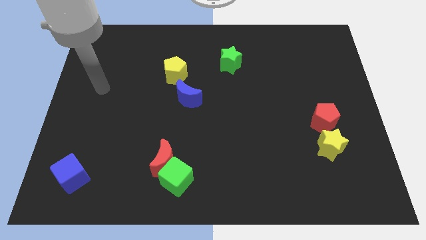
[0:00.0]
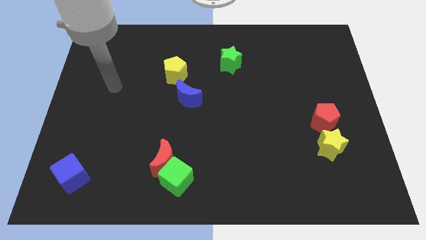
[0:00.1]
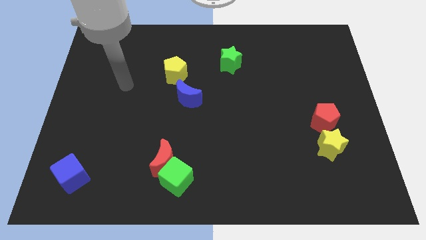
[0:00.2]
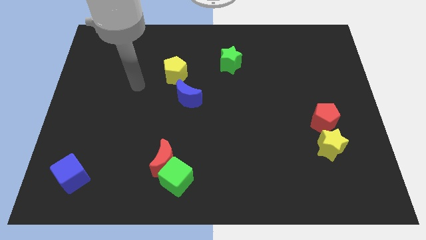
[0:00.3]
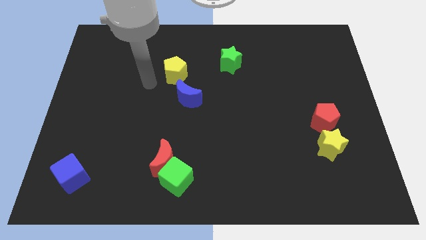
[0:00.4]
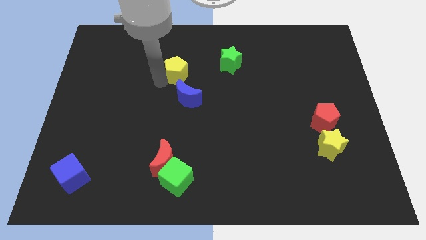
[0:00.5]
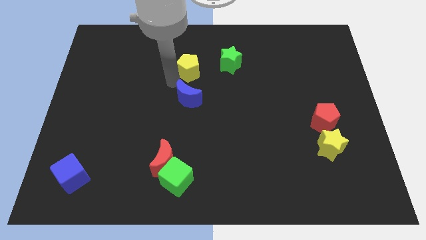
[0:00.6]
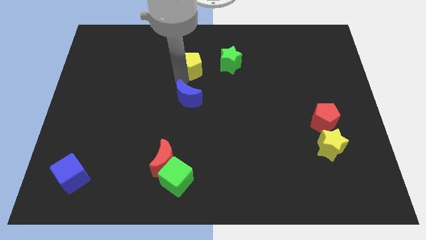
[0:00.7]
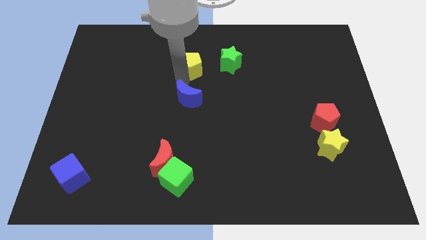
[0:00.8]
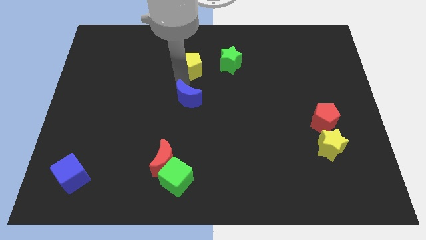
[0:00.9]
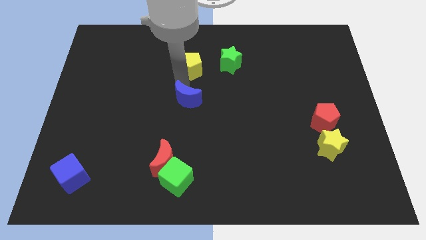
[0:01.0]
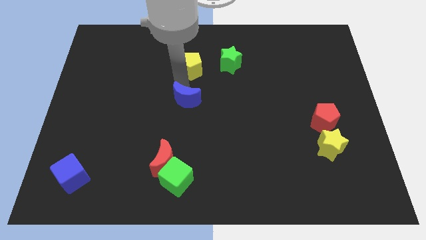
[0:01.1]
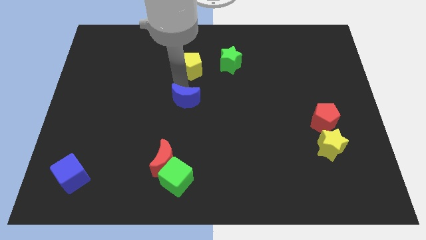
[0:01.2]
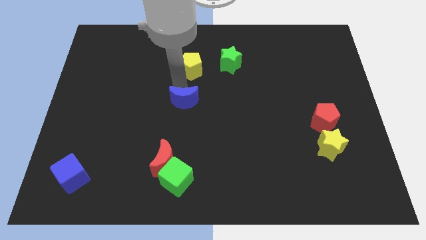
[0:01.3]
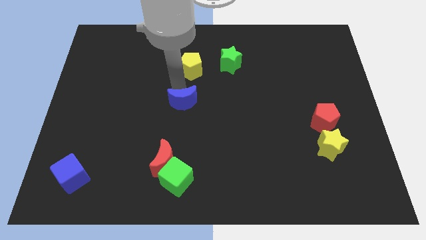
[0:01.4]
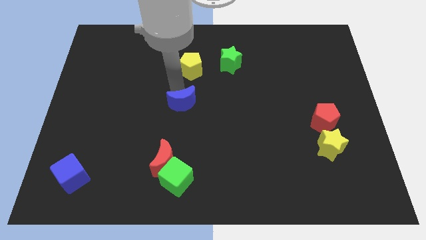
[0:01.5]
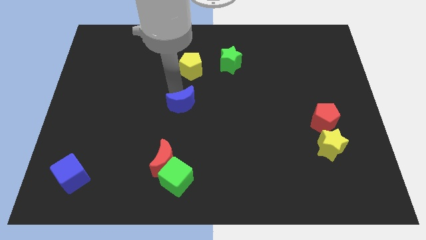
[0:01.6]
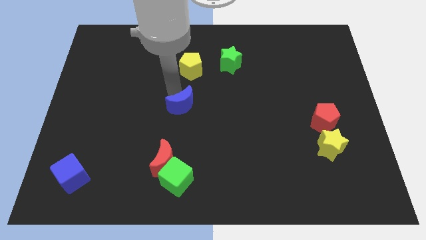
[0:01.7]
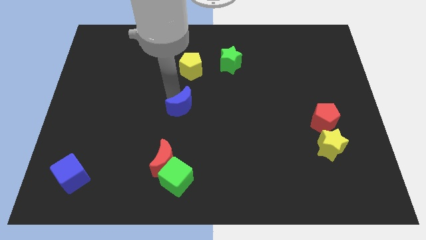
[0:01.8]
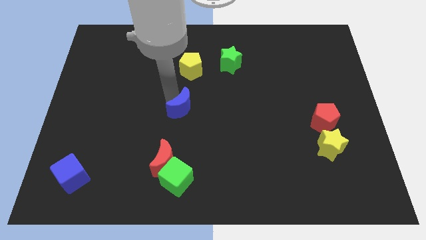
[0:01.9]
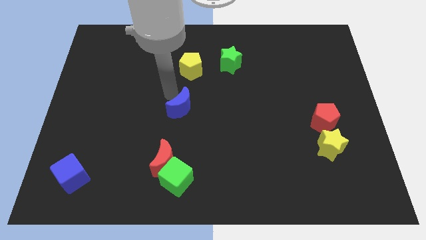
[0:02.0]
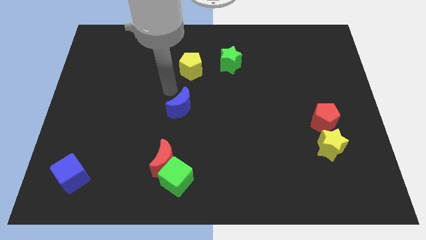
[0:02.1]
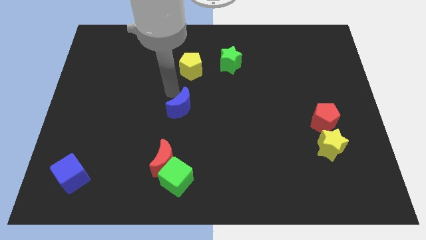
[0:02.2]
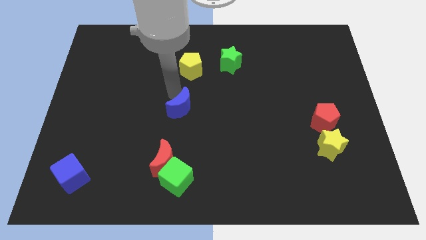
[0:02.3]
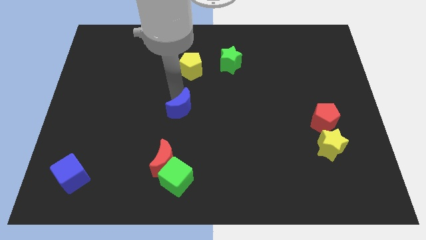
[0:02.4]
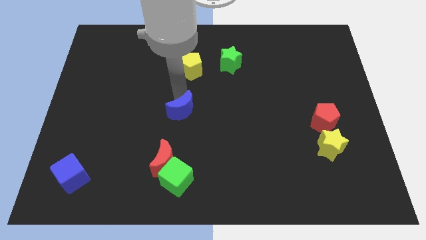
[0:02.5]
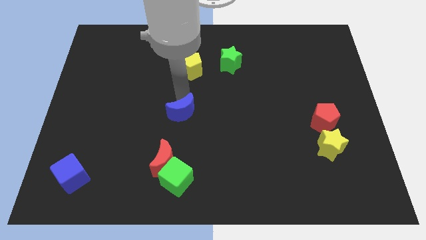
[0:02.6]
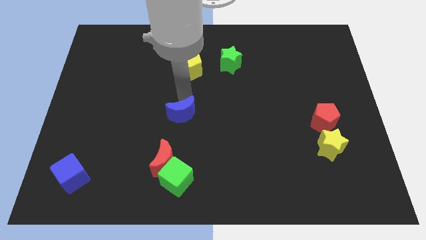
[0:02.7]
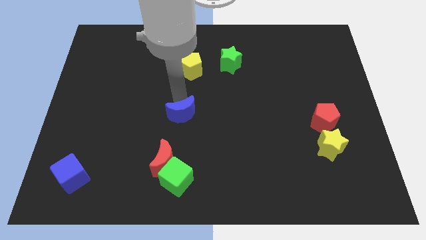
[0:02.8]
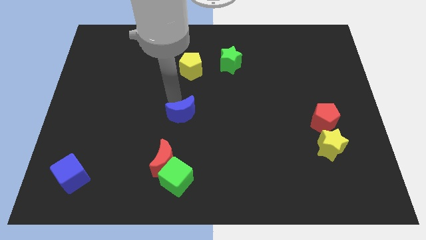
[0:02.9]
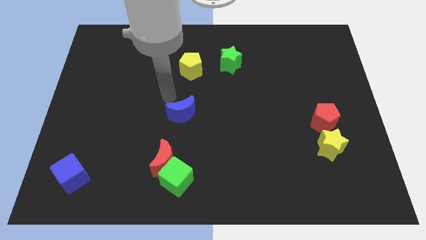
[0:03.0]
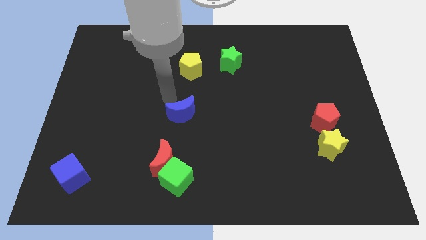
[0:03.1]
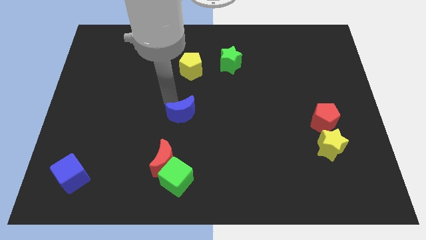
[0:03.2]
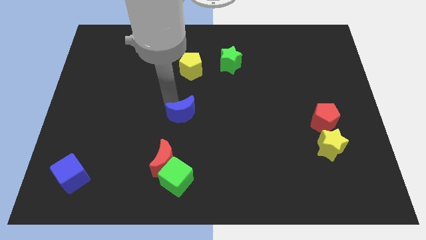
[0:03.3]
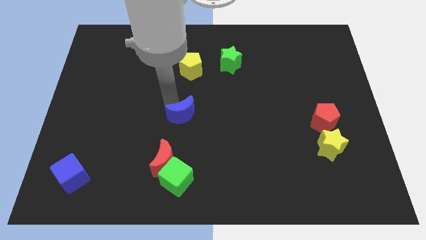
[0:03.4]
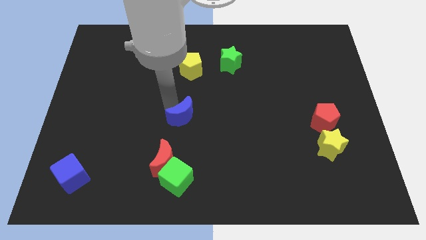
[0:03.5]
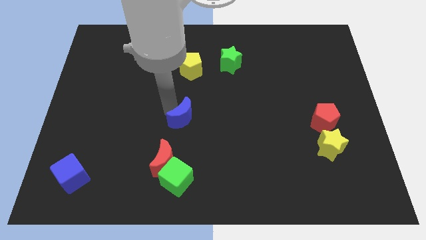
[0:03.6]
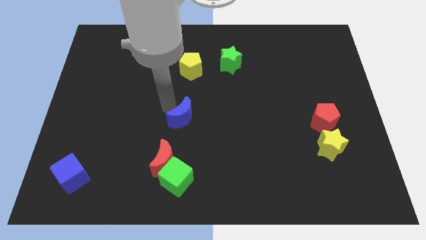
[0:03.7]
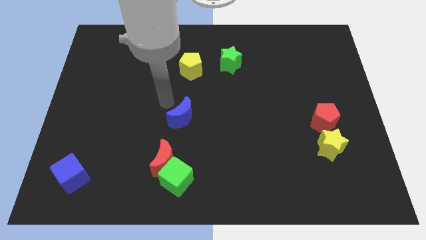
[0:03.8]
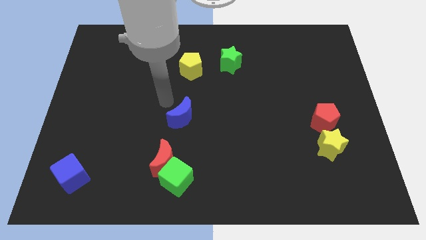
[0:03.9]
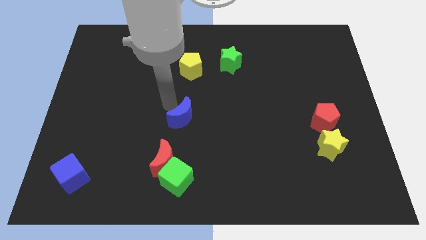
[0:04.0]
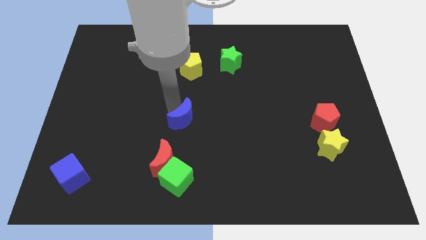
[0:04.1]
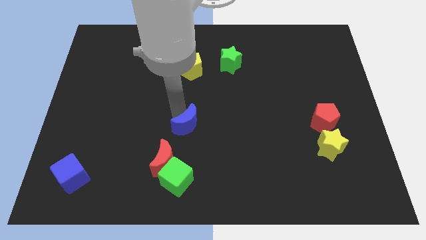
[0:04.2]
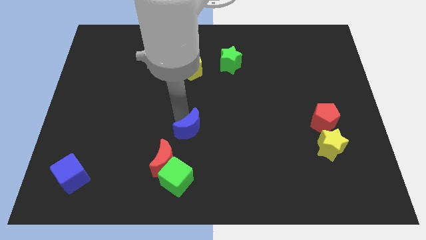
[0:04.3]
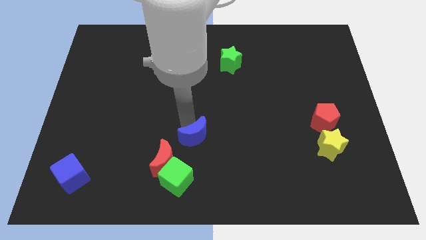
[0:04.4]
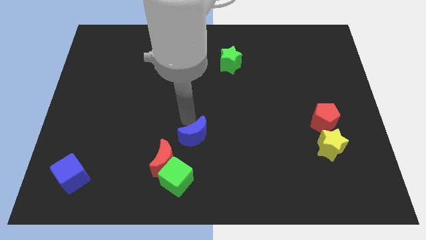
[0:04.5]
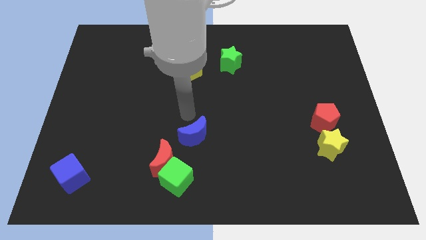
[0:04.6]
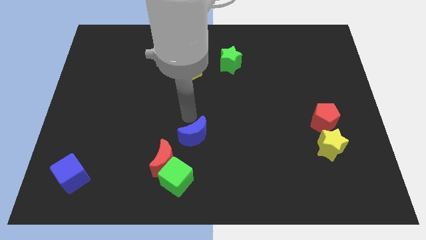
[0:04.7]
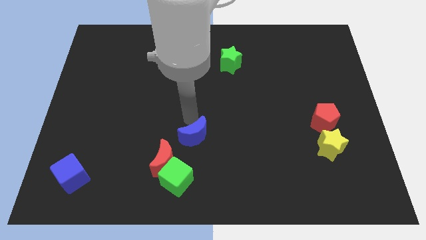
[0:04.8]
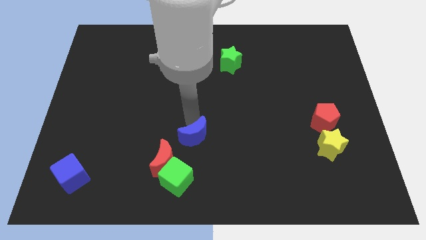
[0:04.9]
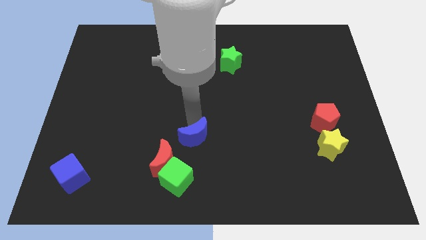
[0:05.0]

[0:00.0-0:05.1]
push the blue moon diagonally up and to the right of the green cube

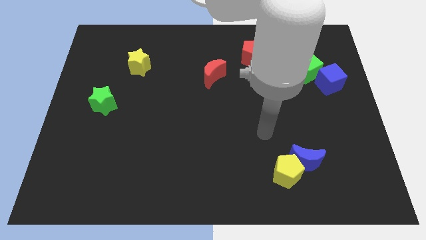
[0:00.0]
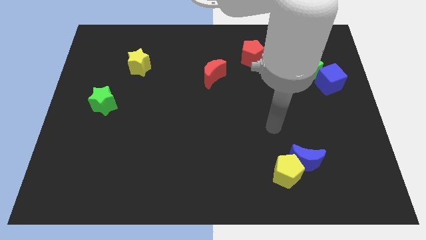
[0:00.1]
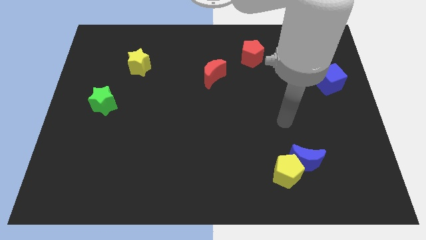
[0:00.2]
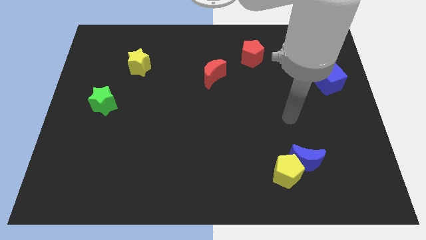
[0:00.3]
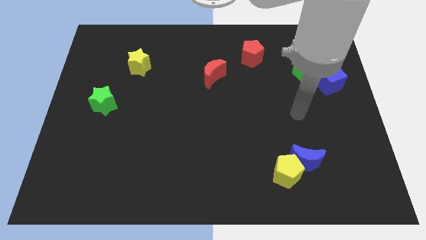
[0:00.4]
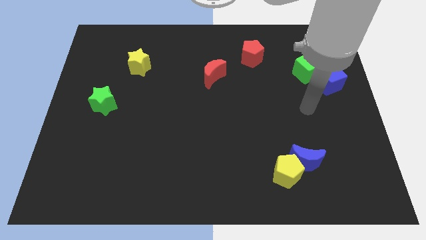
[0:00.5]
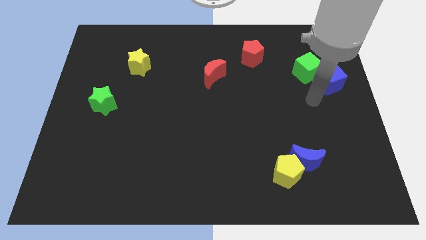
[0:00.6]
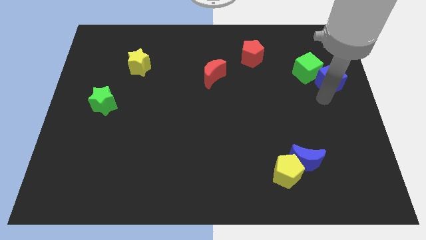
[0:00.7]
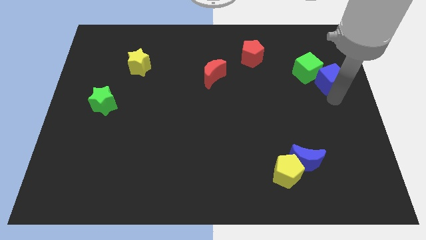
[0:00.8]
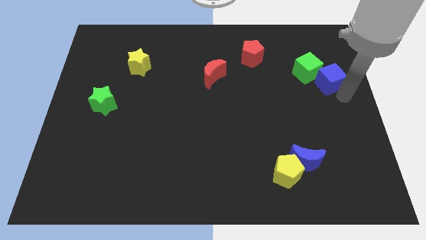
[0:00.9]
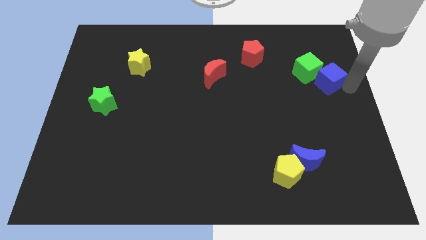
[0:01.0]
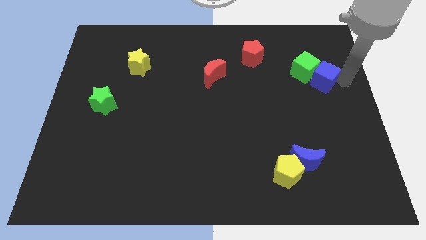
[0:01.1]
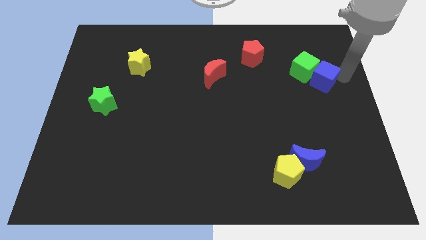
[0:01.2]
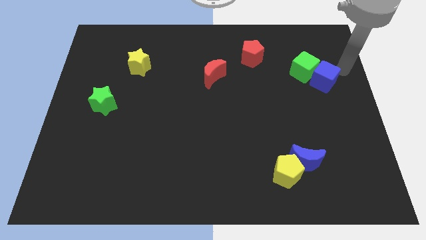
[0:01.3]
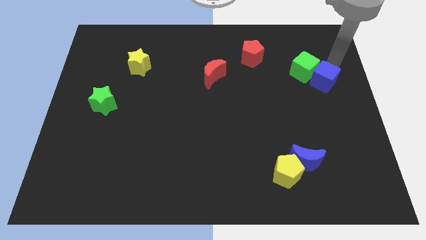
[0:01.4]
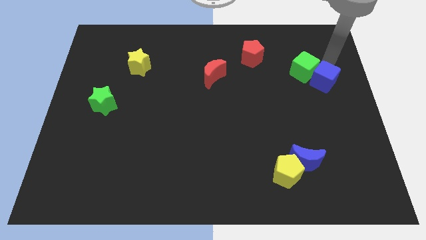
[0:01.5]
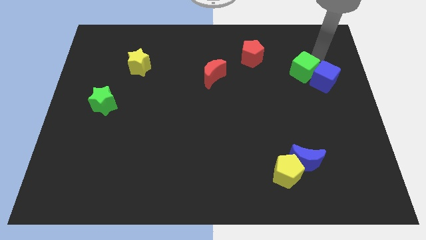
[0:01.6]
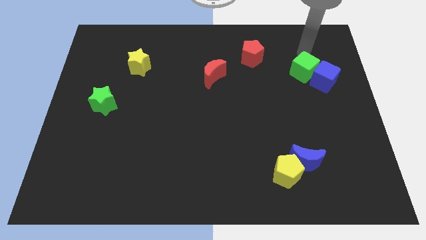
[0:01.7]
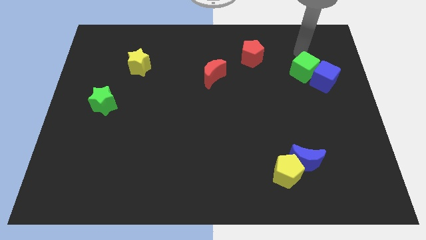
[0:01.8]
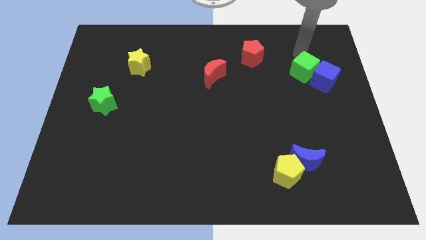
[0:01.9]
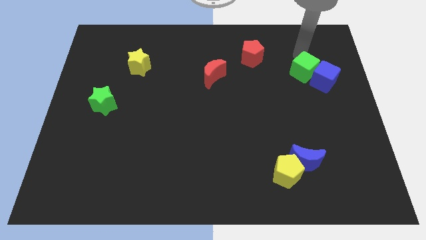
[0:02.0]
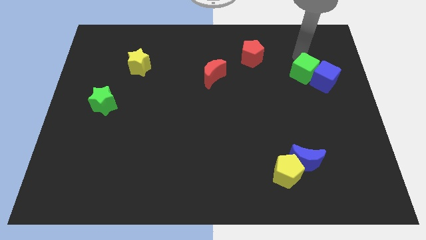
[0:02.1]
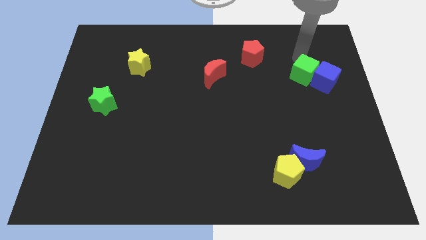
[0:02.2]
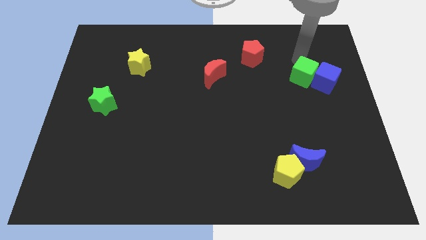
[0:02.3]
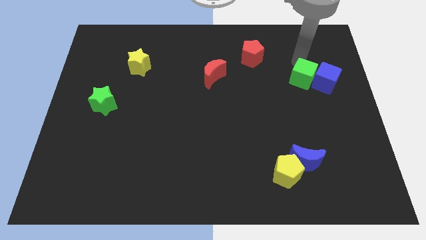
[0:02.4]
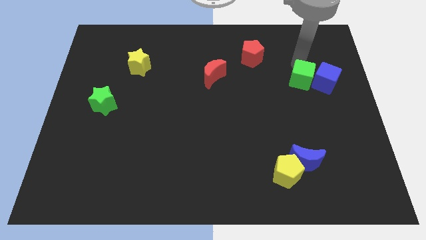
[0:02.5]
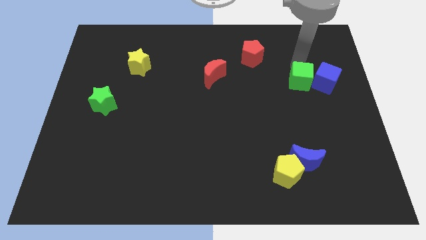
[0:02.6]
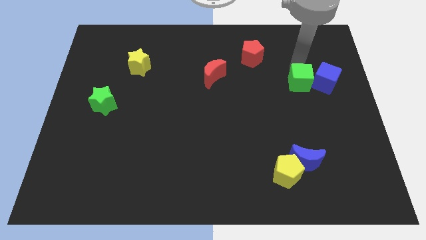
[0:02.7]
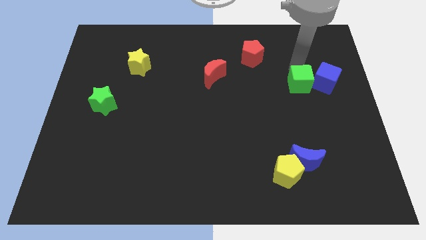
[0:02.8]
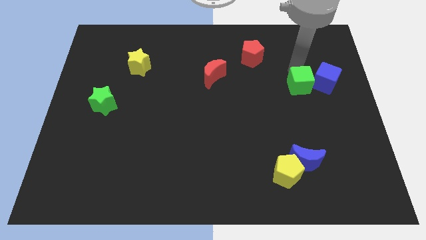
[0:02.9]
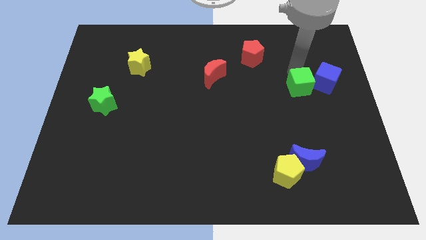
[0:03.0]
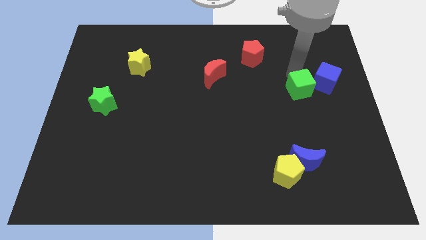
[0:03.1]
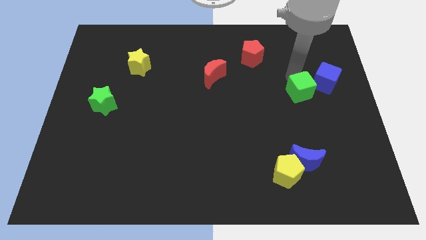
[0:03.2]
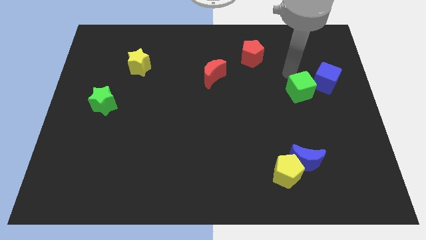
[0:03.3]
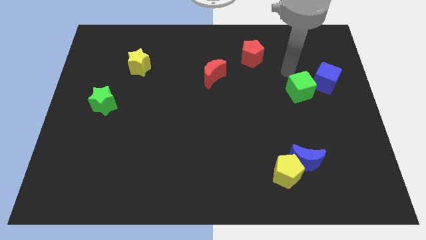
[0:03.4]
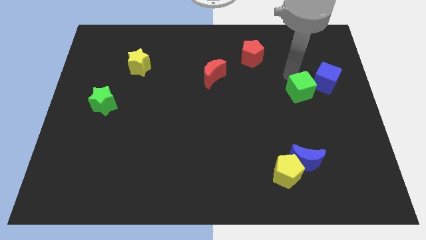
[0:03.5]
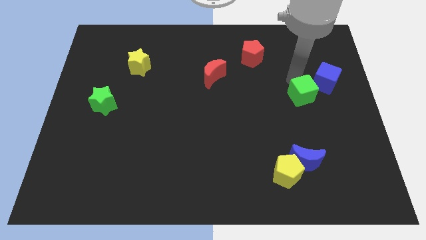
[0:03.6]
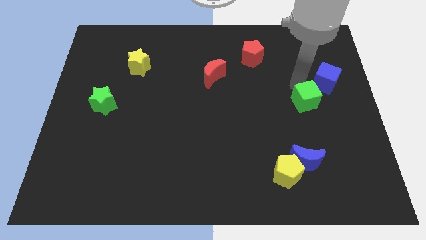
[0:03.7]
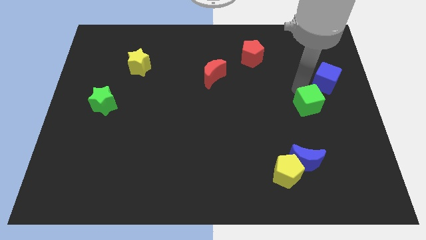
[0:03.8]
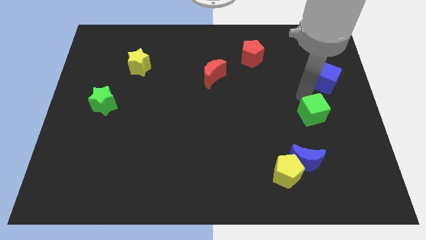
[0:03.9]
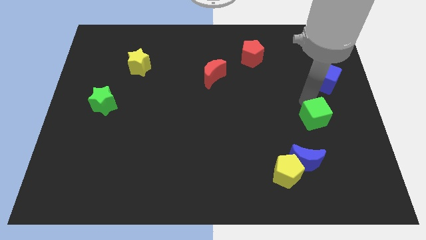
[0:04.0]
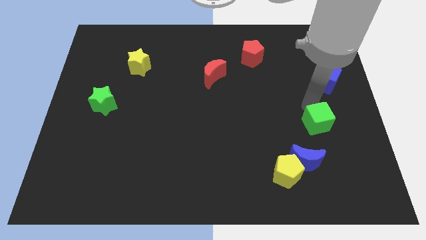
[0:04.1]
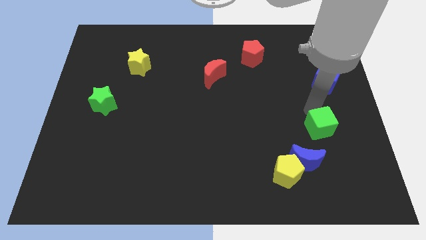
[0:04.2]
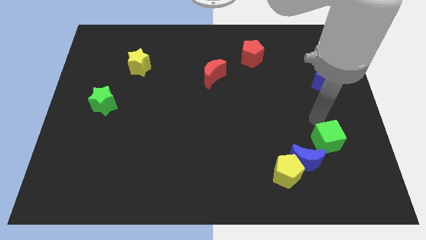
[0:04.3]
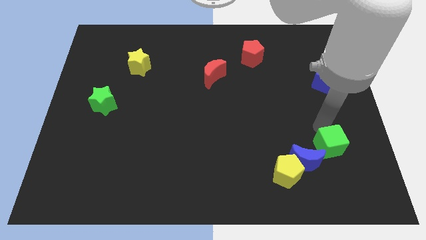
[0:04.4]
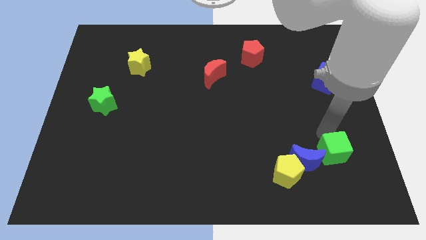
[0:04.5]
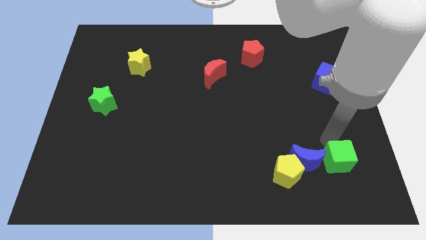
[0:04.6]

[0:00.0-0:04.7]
move the green cube to the right of the yellow pentagon
